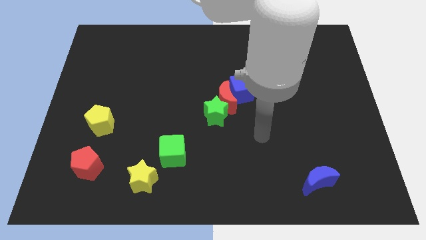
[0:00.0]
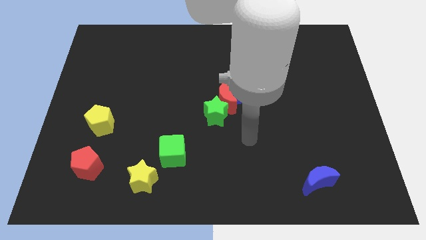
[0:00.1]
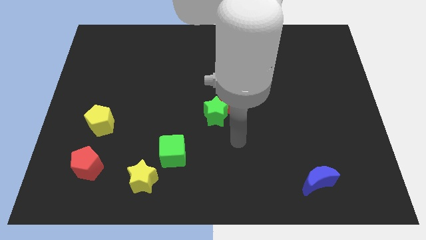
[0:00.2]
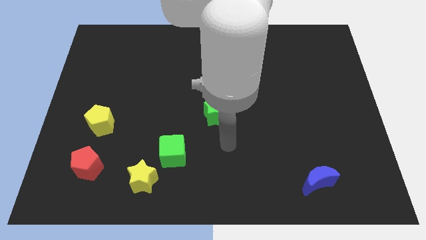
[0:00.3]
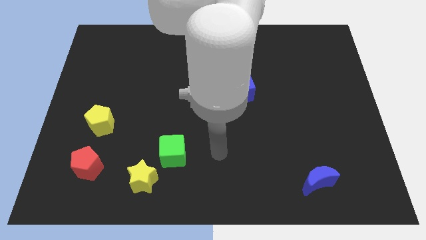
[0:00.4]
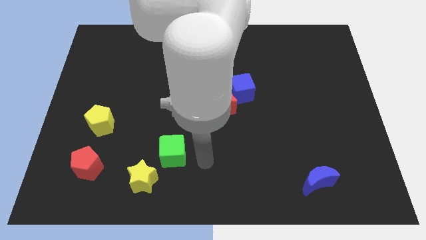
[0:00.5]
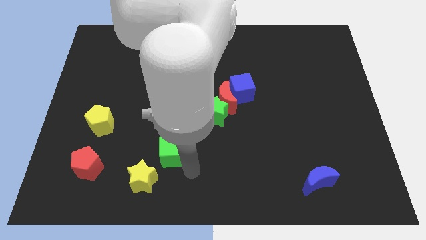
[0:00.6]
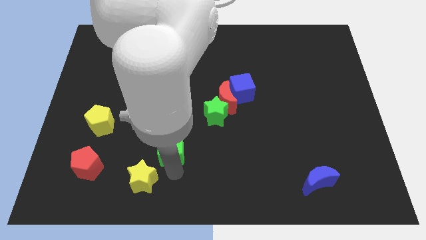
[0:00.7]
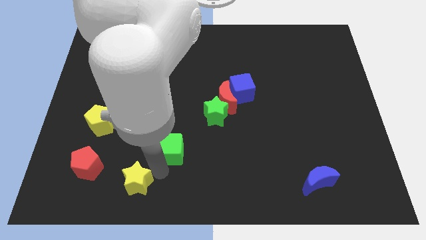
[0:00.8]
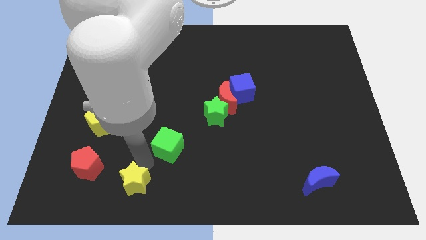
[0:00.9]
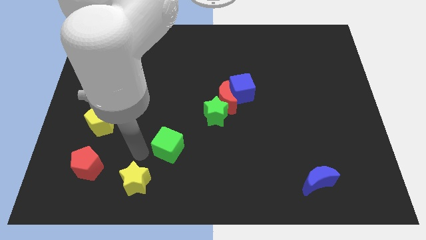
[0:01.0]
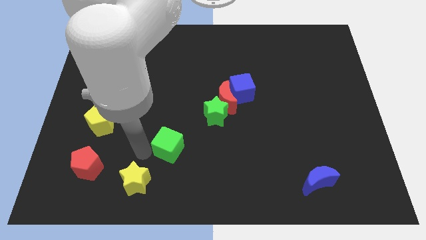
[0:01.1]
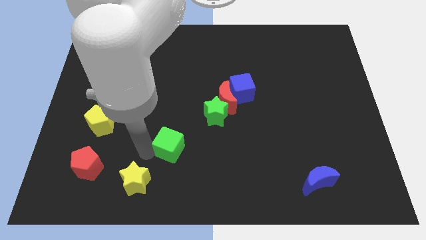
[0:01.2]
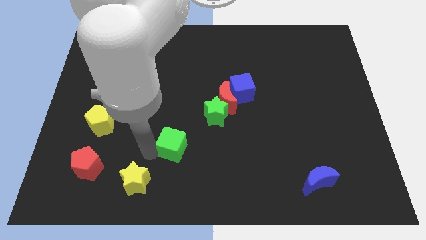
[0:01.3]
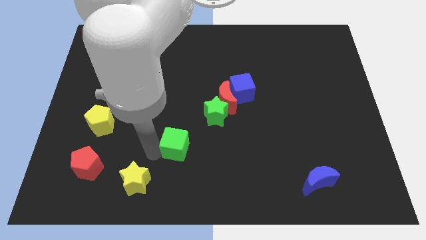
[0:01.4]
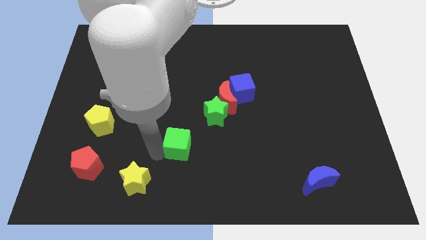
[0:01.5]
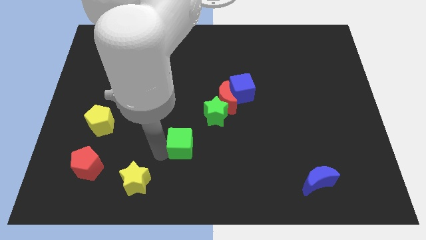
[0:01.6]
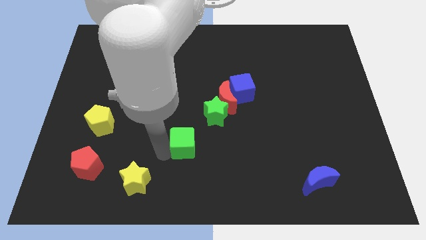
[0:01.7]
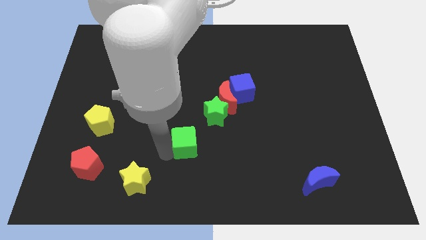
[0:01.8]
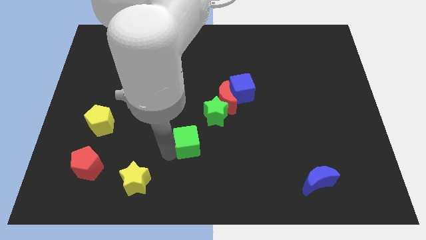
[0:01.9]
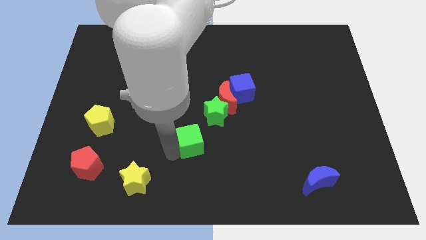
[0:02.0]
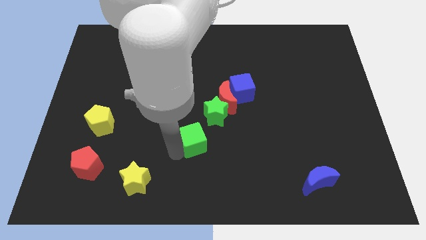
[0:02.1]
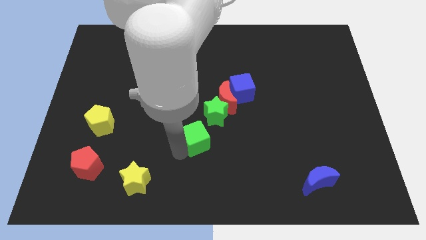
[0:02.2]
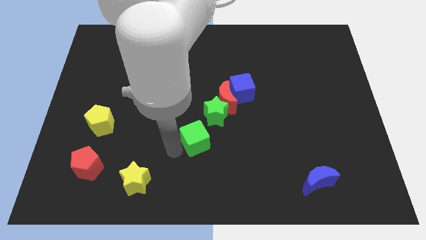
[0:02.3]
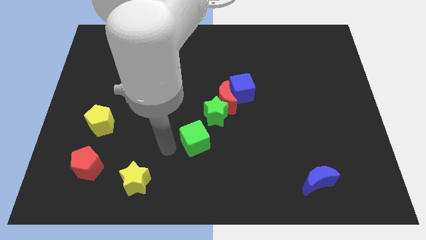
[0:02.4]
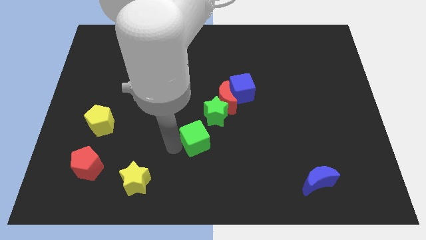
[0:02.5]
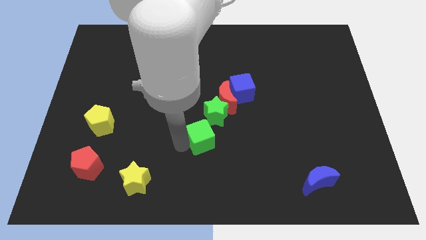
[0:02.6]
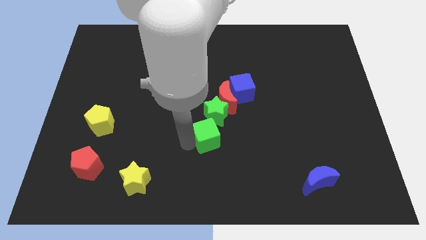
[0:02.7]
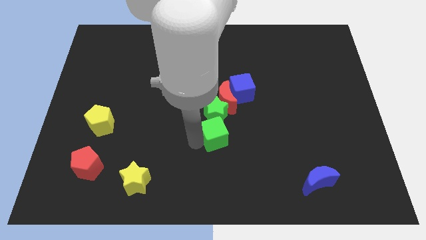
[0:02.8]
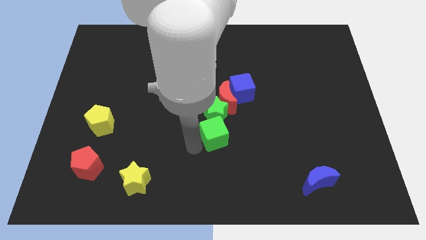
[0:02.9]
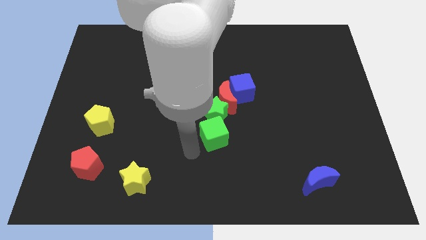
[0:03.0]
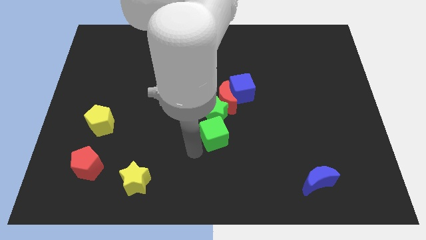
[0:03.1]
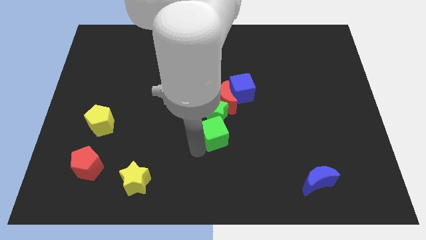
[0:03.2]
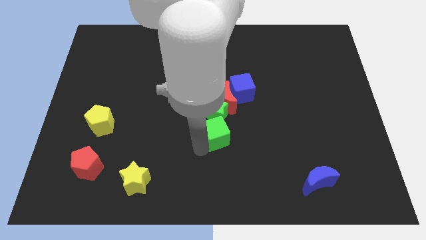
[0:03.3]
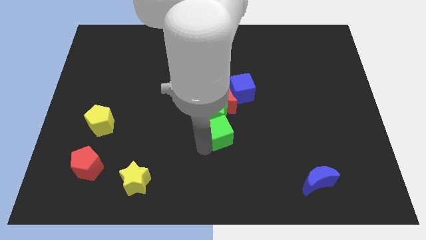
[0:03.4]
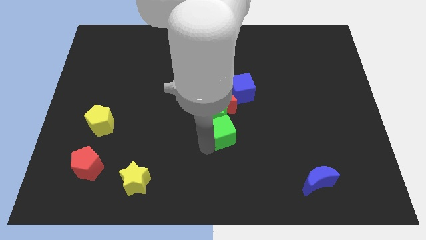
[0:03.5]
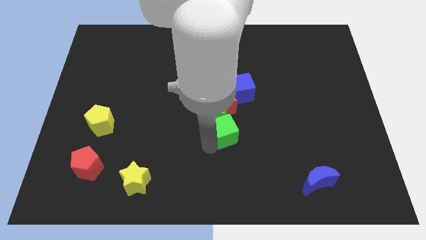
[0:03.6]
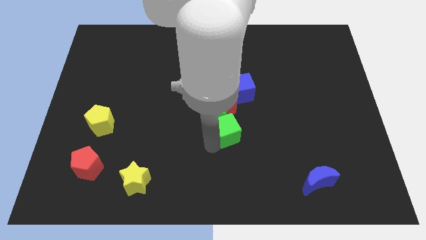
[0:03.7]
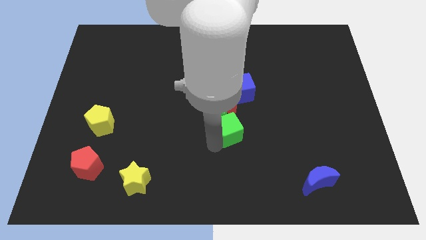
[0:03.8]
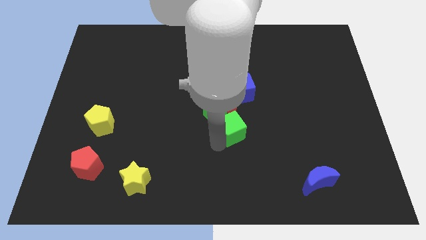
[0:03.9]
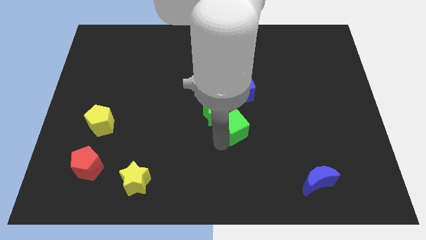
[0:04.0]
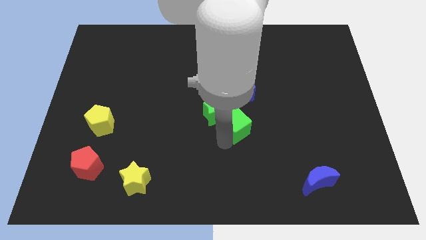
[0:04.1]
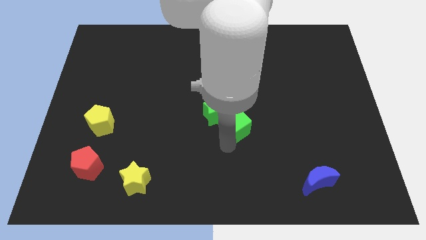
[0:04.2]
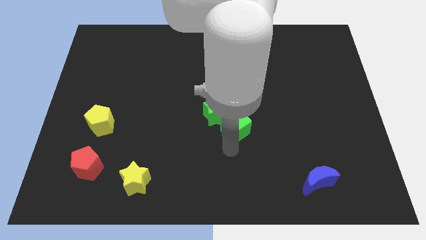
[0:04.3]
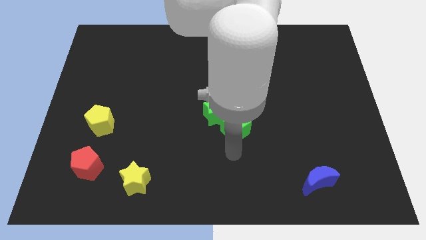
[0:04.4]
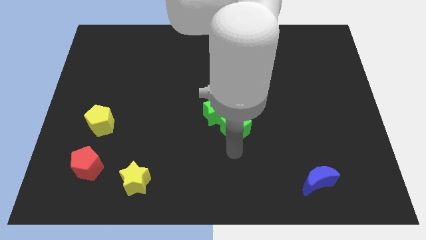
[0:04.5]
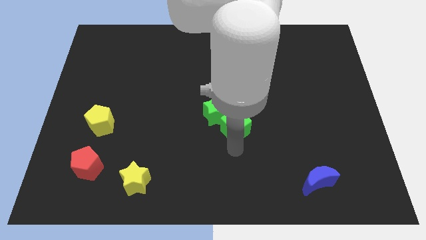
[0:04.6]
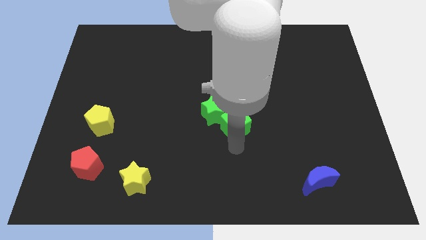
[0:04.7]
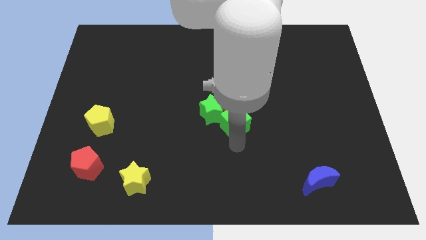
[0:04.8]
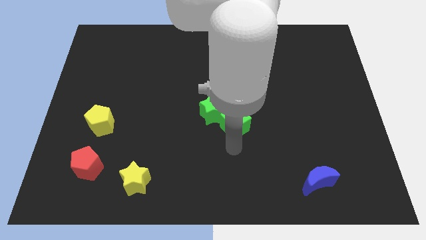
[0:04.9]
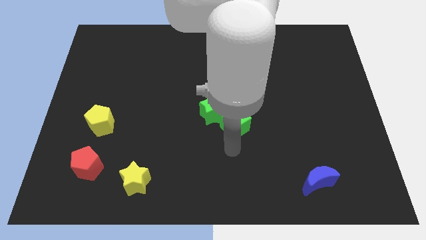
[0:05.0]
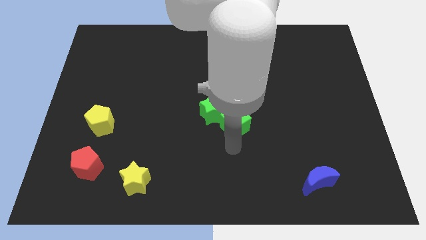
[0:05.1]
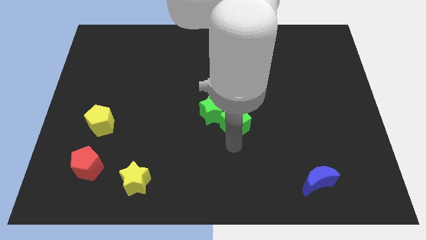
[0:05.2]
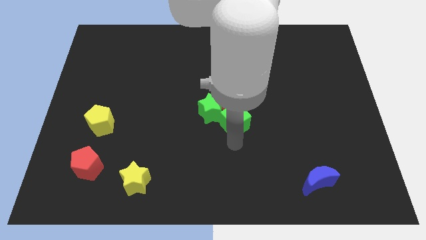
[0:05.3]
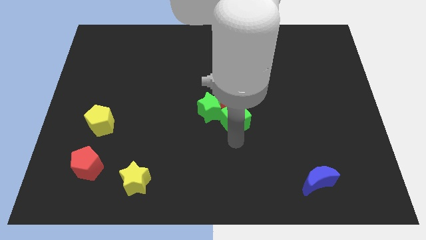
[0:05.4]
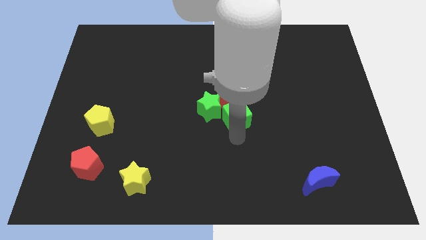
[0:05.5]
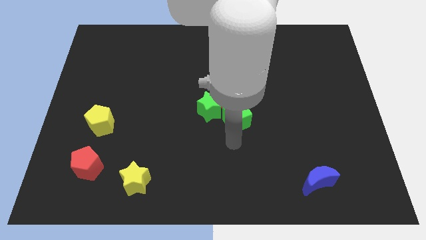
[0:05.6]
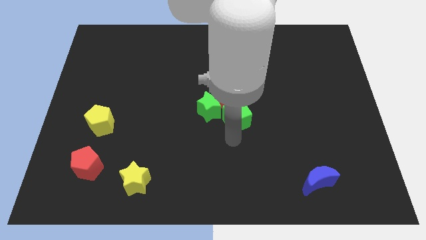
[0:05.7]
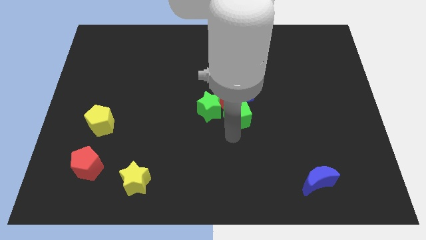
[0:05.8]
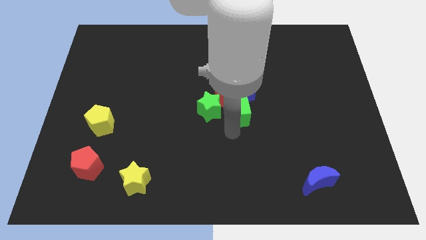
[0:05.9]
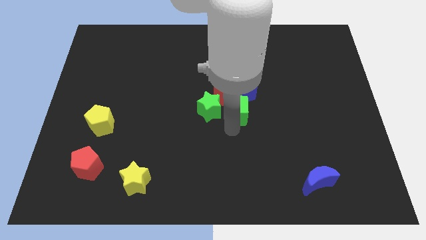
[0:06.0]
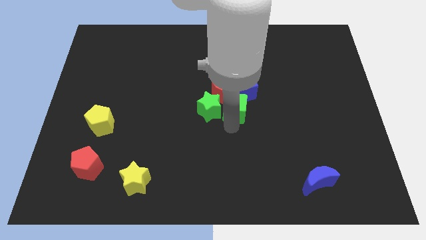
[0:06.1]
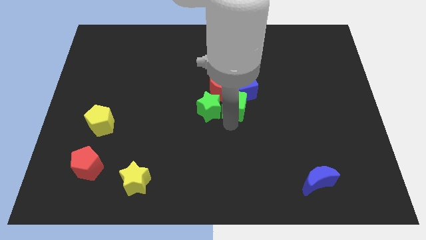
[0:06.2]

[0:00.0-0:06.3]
push the green cube next to the blue cube
